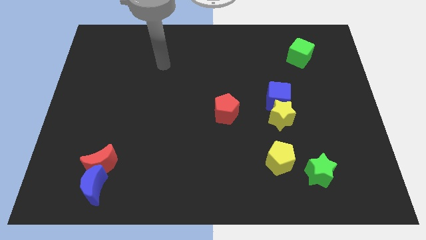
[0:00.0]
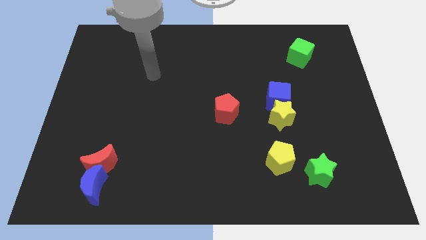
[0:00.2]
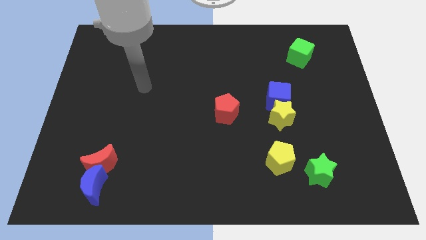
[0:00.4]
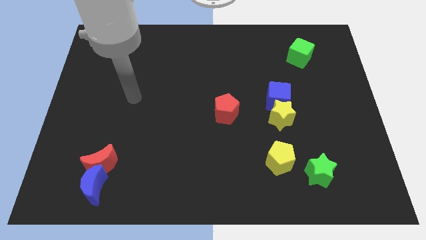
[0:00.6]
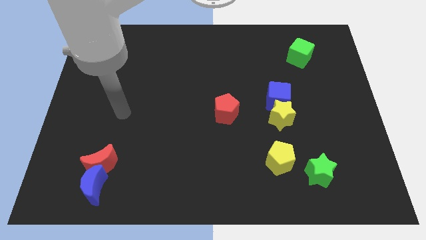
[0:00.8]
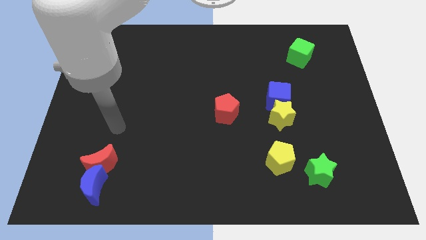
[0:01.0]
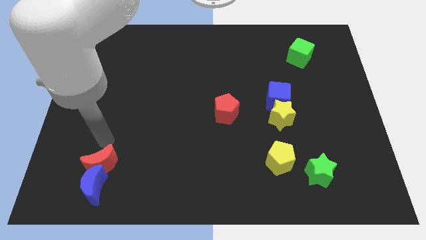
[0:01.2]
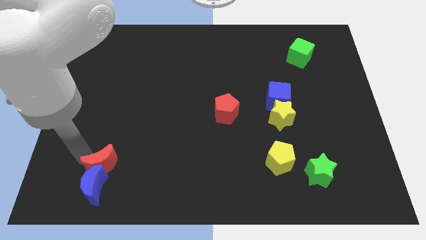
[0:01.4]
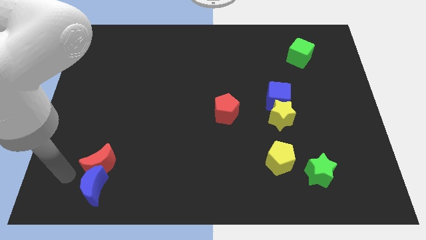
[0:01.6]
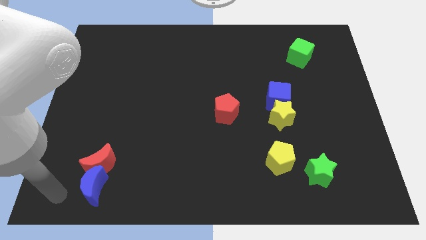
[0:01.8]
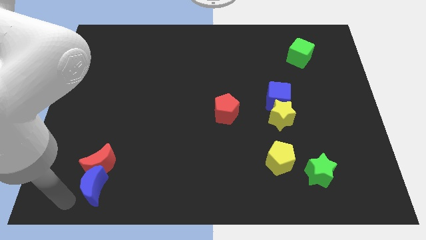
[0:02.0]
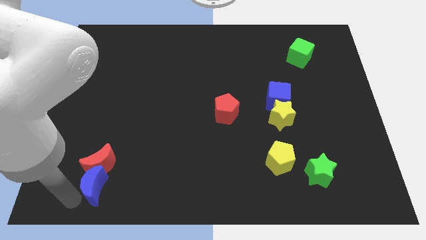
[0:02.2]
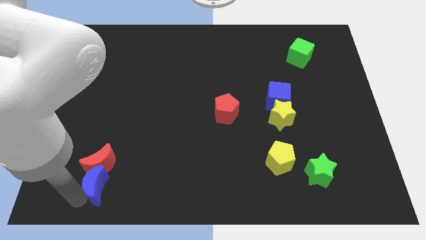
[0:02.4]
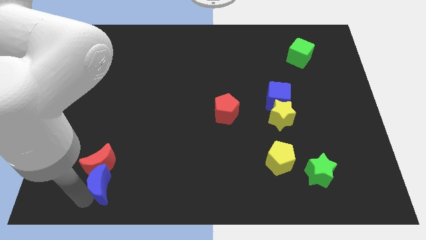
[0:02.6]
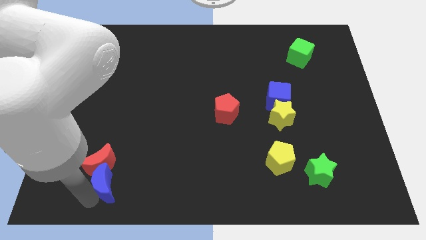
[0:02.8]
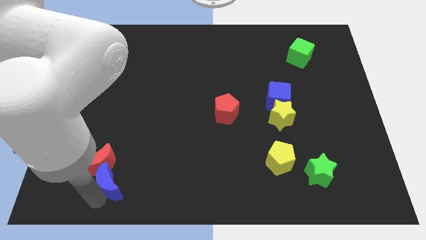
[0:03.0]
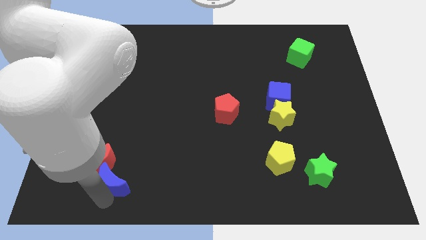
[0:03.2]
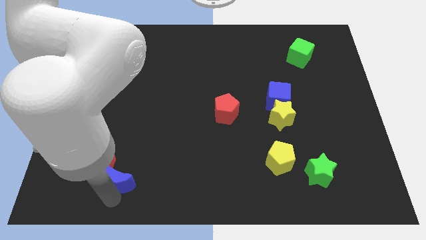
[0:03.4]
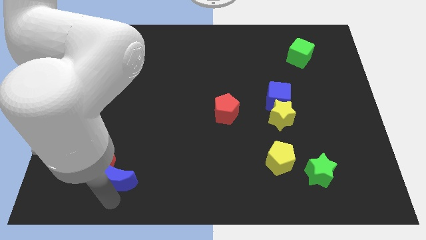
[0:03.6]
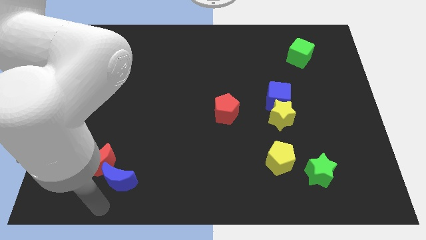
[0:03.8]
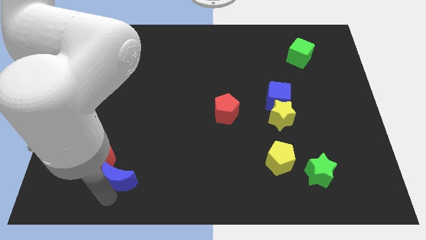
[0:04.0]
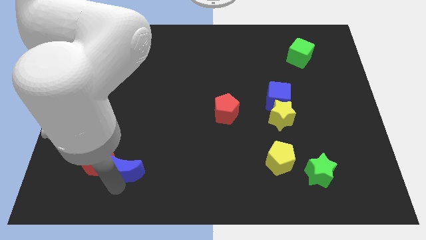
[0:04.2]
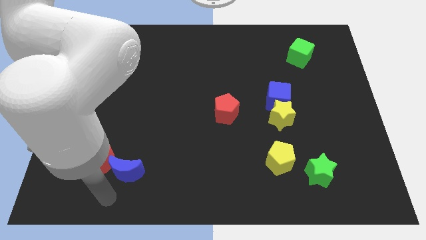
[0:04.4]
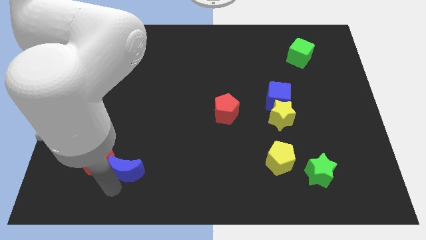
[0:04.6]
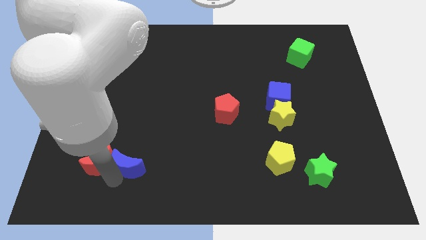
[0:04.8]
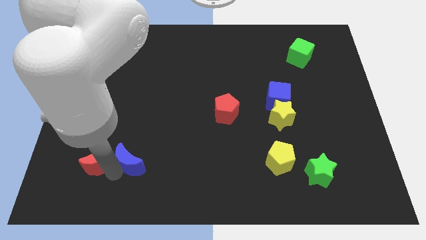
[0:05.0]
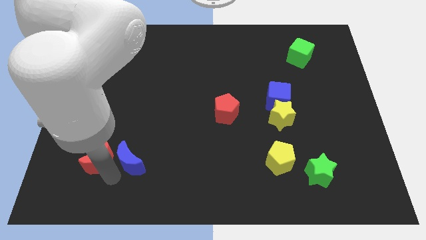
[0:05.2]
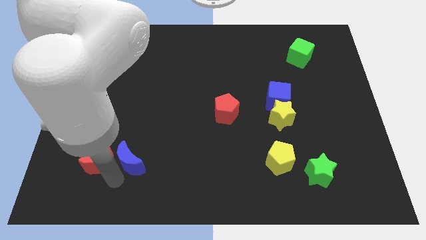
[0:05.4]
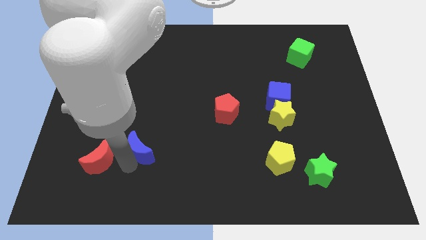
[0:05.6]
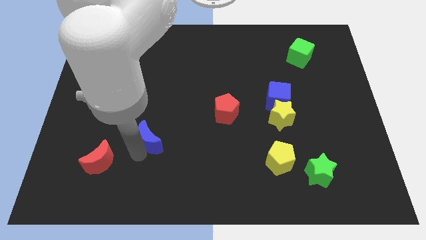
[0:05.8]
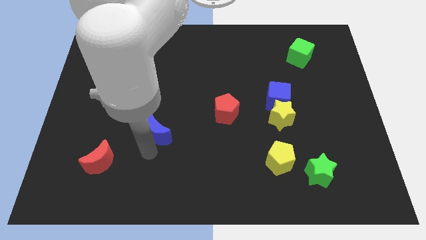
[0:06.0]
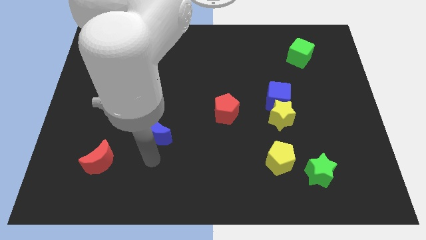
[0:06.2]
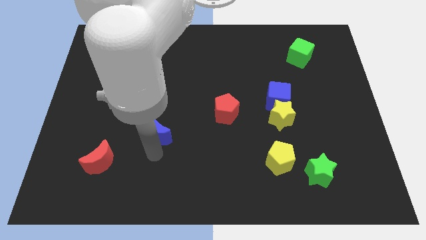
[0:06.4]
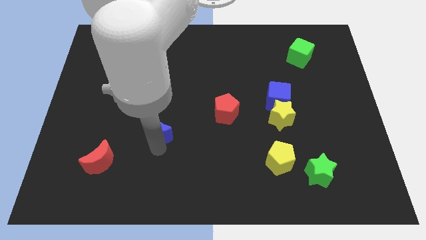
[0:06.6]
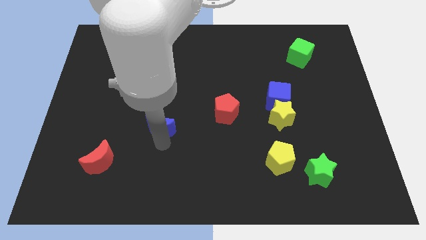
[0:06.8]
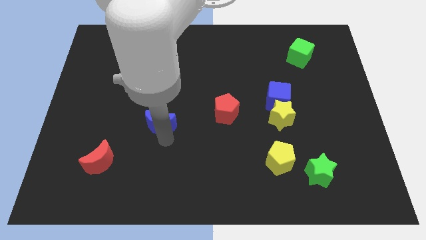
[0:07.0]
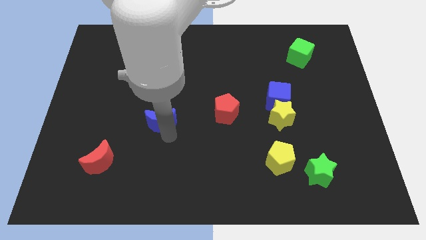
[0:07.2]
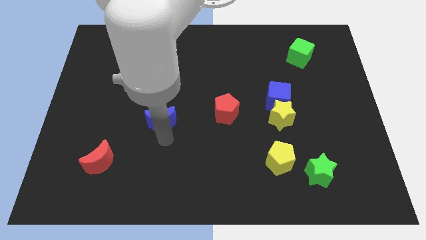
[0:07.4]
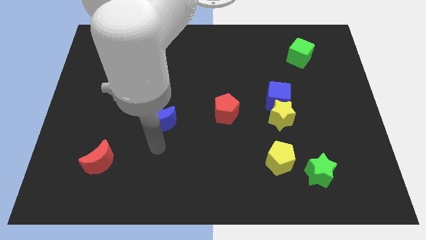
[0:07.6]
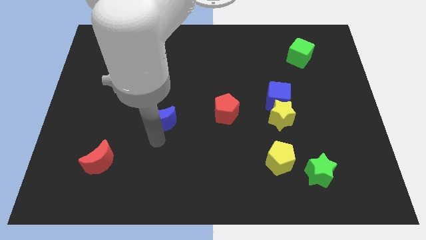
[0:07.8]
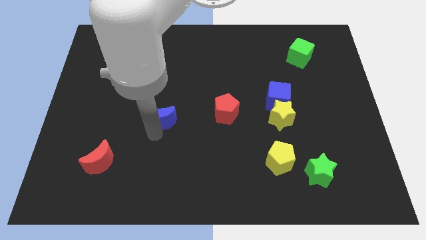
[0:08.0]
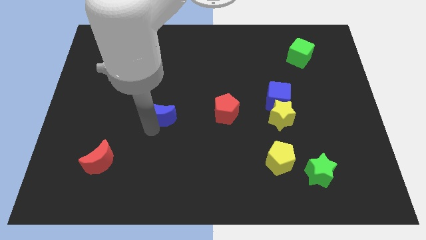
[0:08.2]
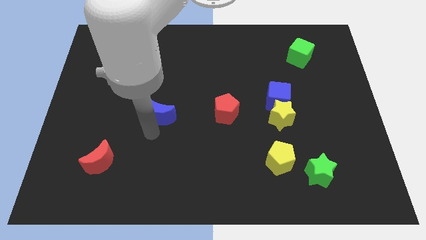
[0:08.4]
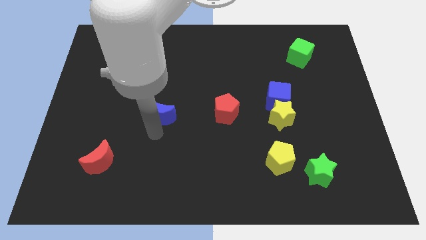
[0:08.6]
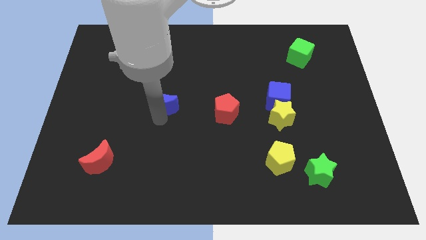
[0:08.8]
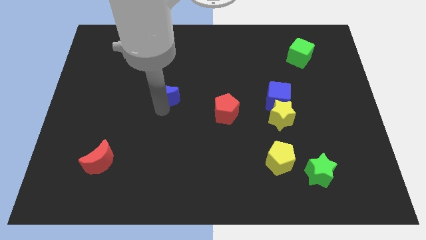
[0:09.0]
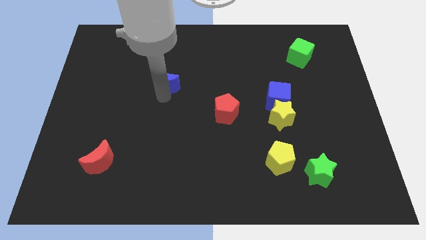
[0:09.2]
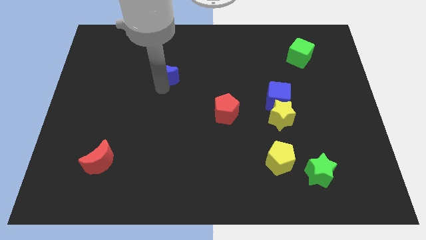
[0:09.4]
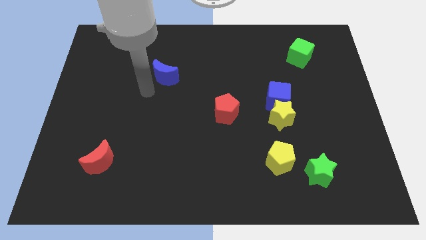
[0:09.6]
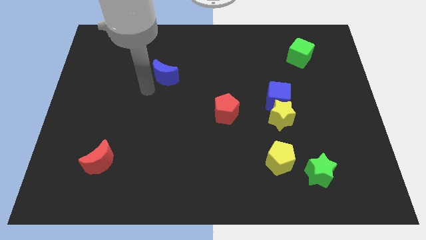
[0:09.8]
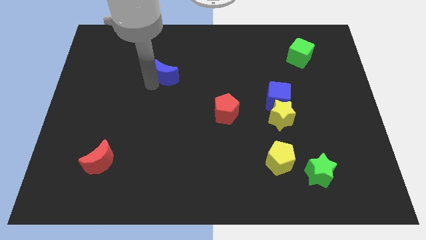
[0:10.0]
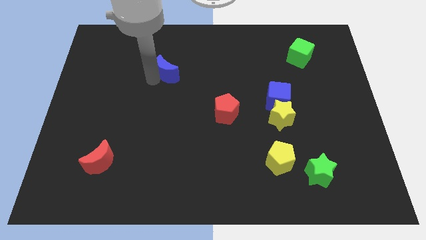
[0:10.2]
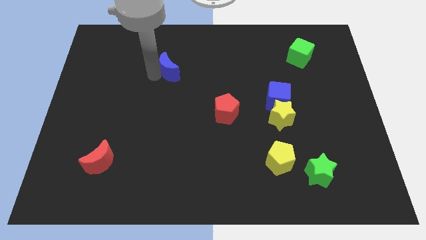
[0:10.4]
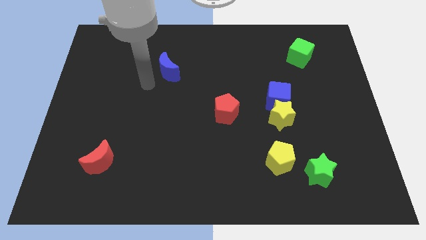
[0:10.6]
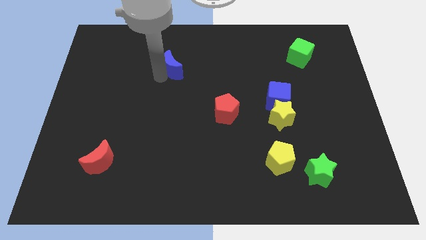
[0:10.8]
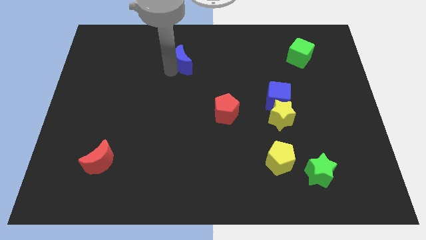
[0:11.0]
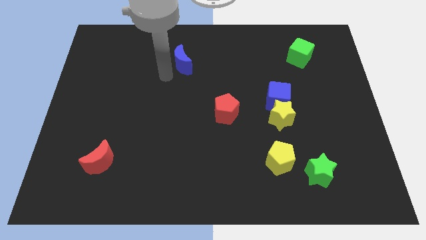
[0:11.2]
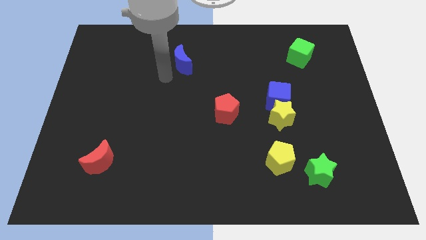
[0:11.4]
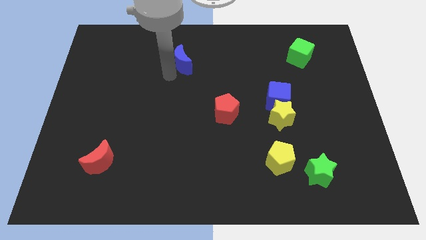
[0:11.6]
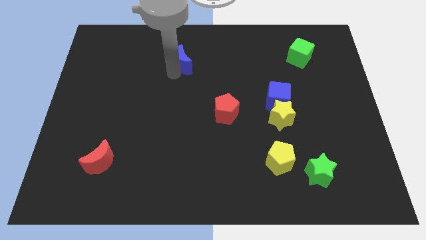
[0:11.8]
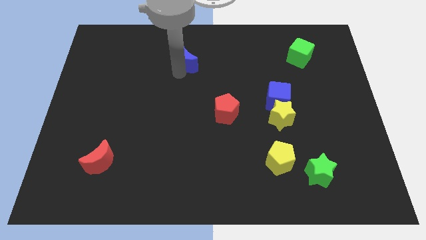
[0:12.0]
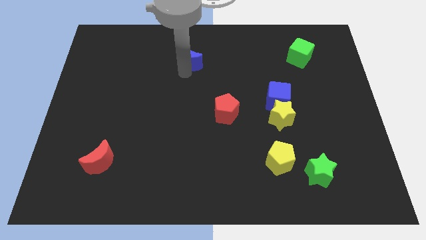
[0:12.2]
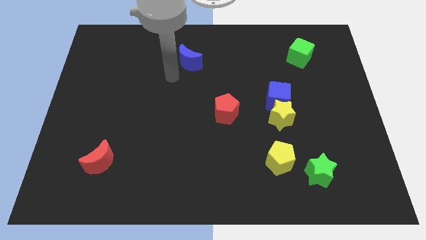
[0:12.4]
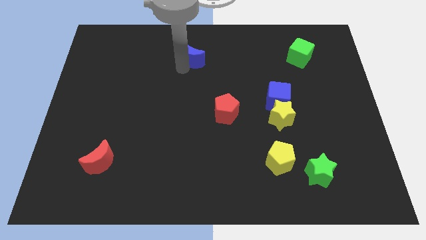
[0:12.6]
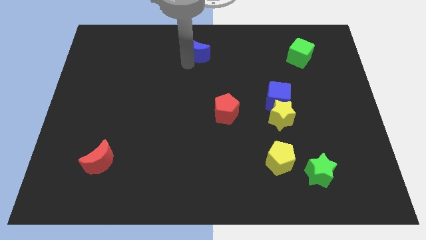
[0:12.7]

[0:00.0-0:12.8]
push the blue moon to the top

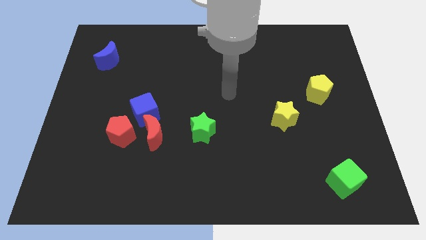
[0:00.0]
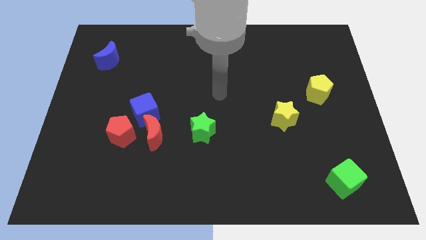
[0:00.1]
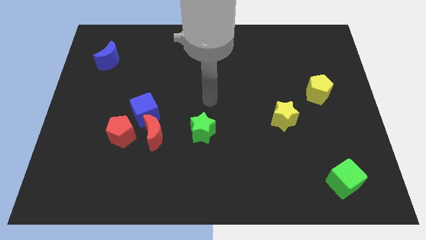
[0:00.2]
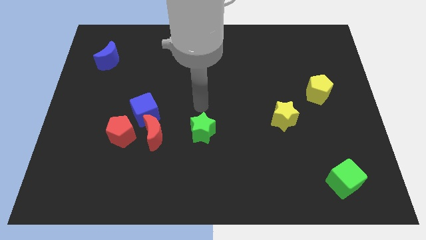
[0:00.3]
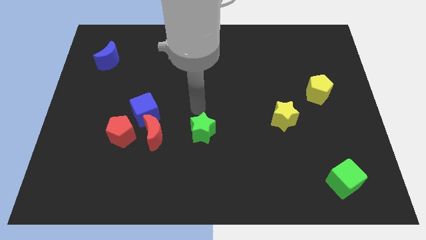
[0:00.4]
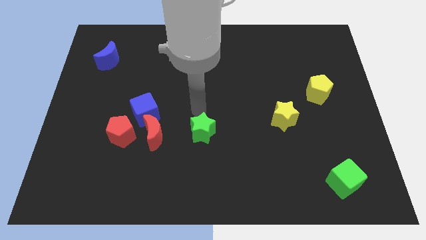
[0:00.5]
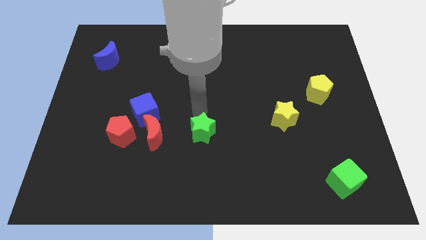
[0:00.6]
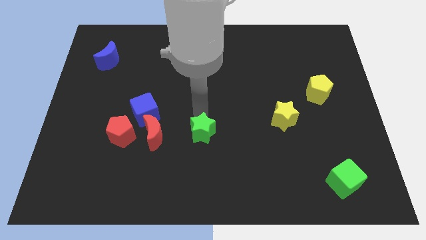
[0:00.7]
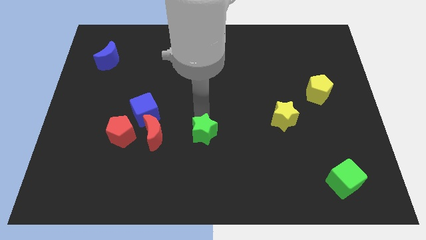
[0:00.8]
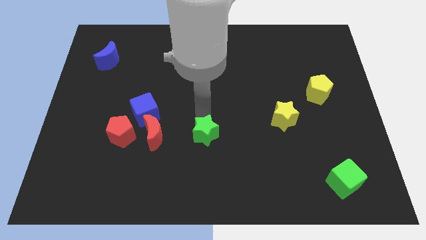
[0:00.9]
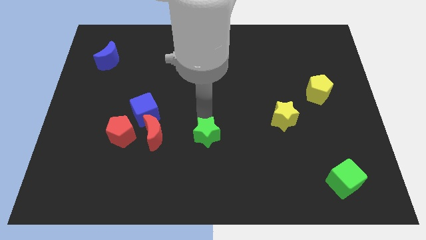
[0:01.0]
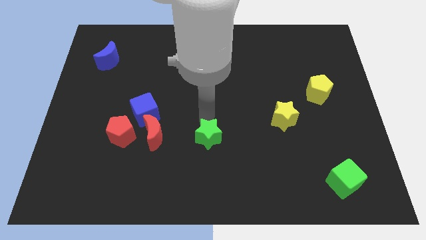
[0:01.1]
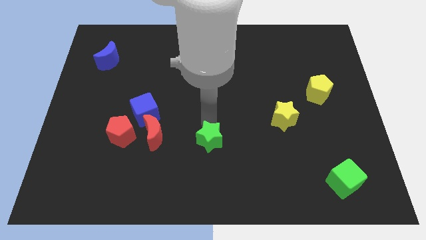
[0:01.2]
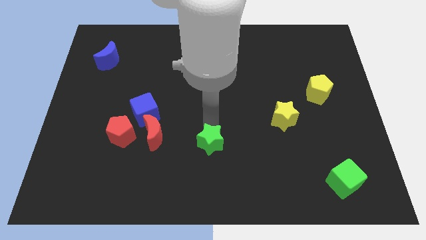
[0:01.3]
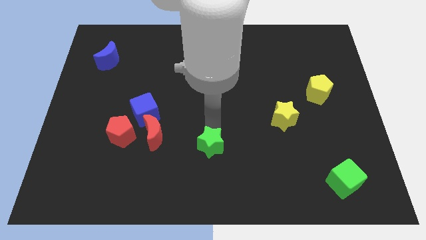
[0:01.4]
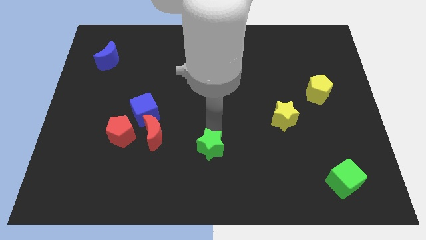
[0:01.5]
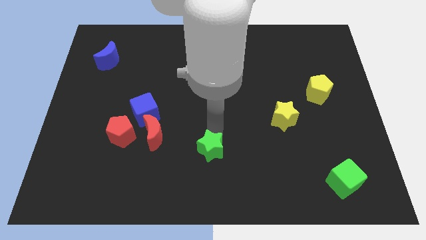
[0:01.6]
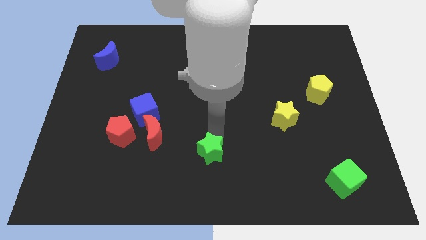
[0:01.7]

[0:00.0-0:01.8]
push the green star to the bottom side
